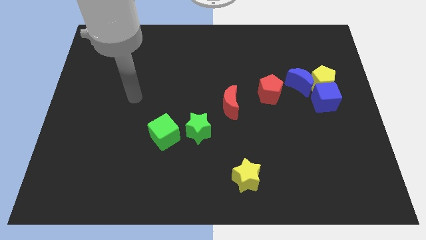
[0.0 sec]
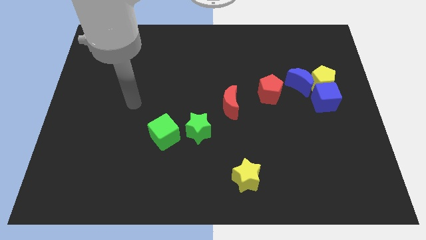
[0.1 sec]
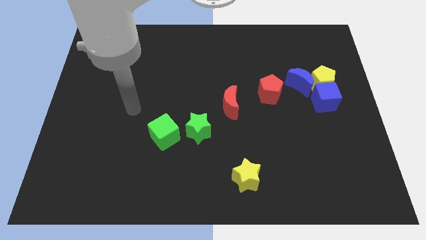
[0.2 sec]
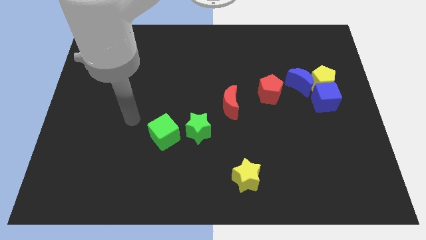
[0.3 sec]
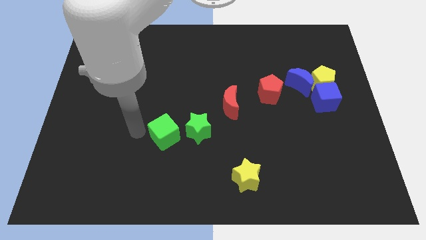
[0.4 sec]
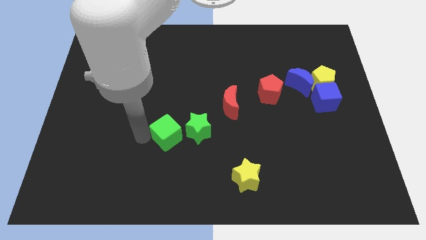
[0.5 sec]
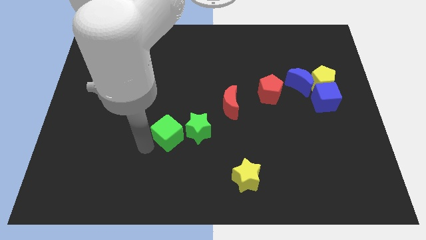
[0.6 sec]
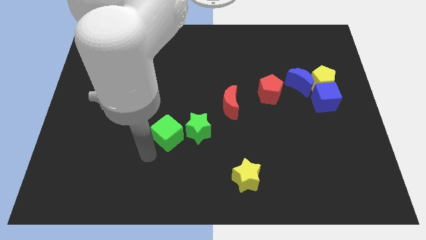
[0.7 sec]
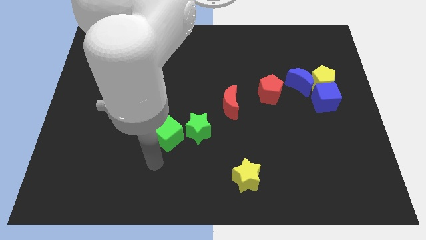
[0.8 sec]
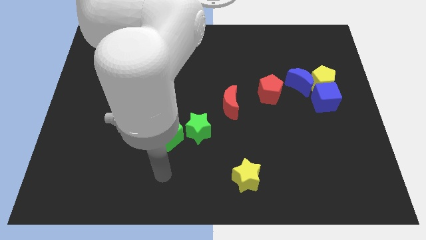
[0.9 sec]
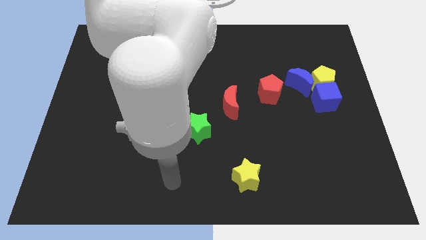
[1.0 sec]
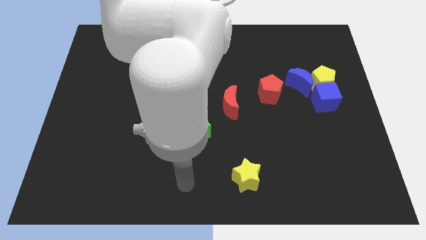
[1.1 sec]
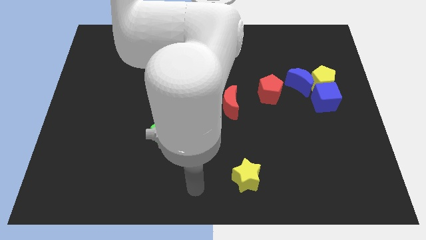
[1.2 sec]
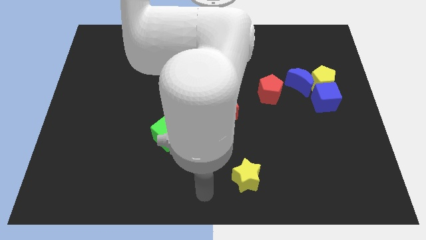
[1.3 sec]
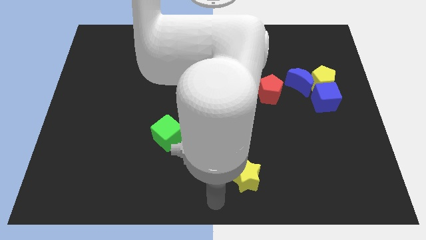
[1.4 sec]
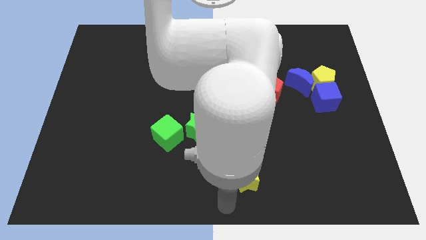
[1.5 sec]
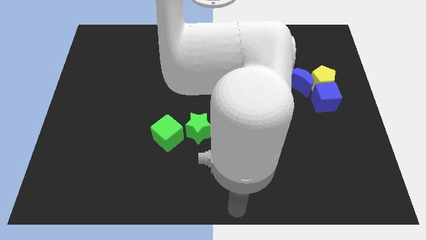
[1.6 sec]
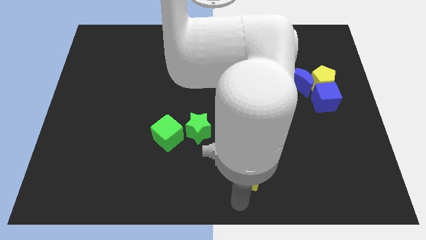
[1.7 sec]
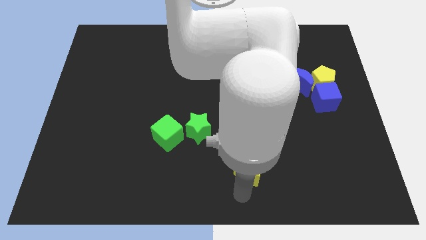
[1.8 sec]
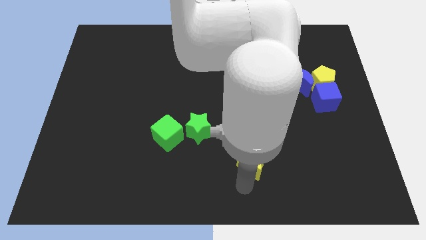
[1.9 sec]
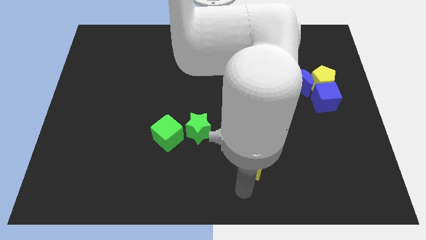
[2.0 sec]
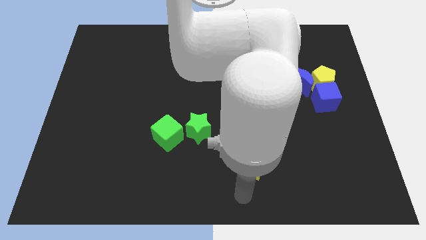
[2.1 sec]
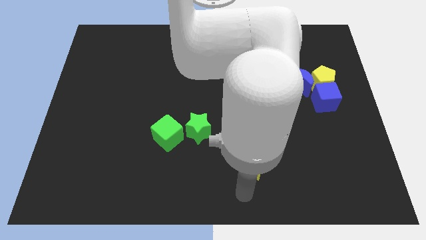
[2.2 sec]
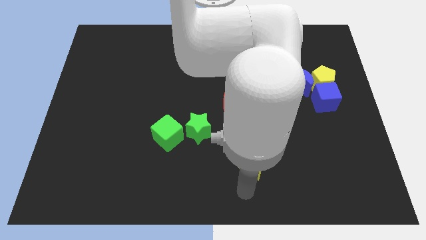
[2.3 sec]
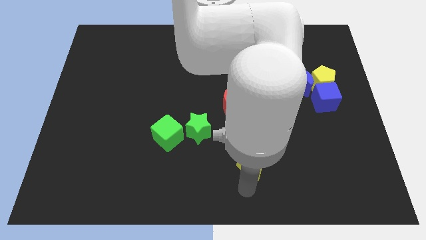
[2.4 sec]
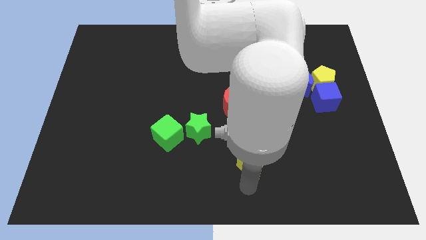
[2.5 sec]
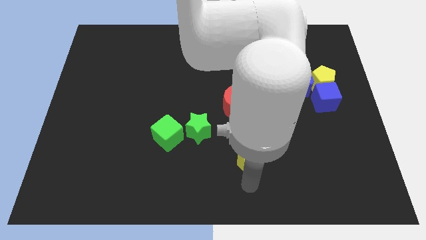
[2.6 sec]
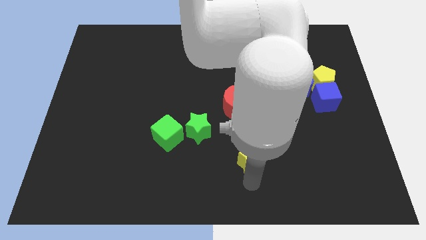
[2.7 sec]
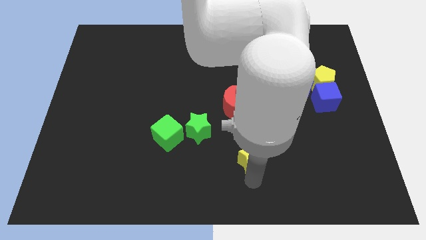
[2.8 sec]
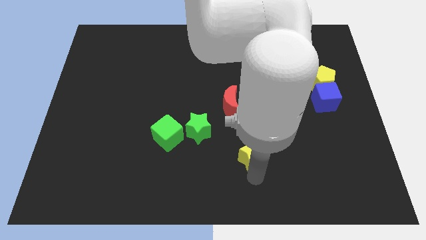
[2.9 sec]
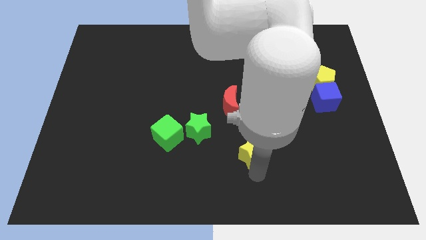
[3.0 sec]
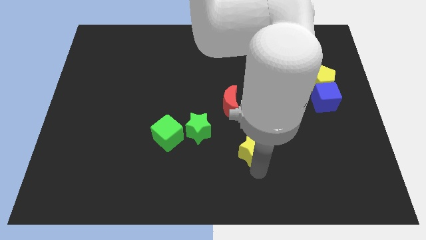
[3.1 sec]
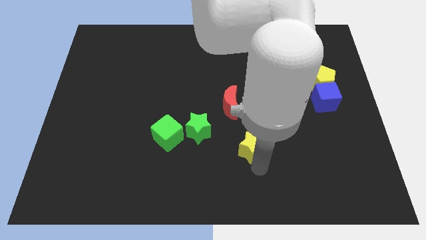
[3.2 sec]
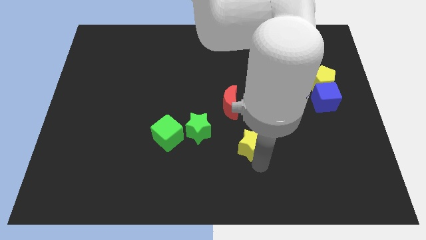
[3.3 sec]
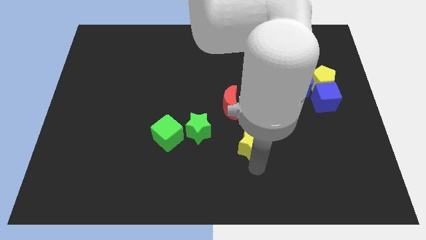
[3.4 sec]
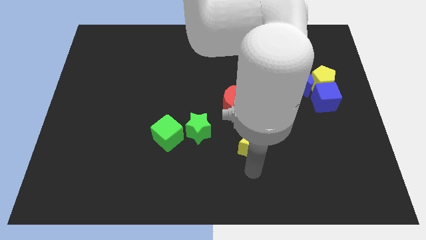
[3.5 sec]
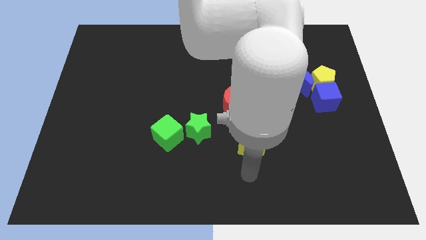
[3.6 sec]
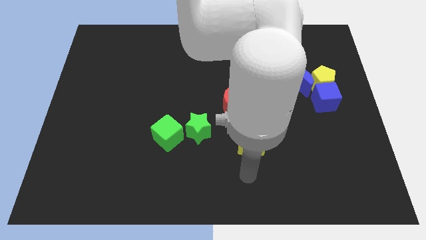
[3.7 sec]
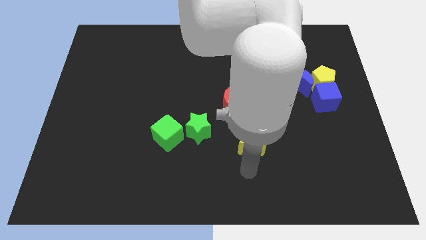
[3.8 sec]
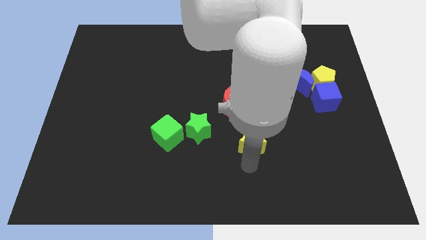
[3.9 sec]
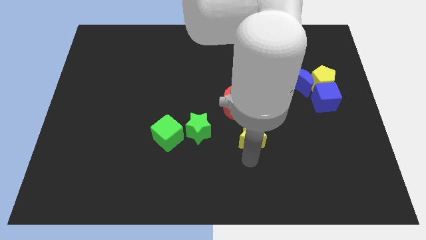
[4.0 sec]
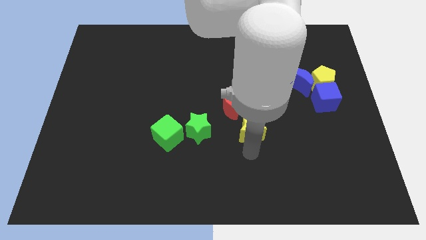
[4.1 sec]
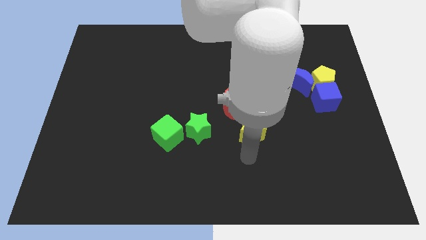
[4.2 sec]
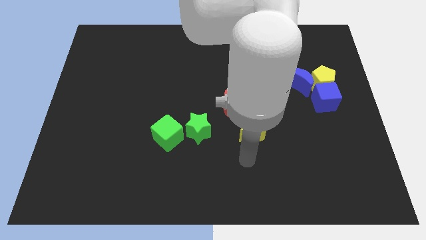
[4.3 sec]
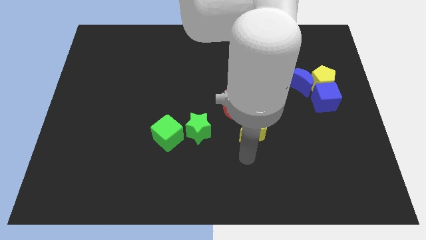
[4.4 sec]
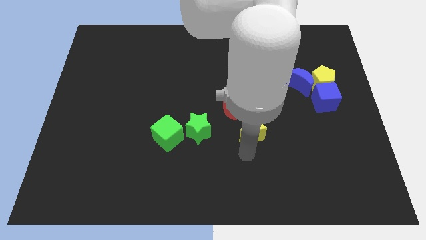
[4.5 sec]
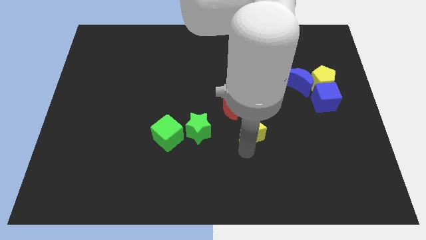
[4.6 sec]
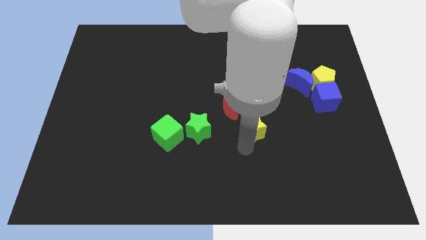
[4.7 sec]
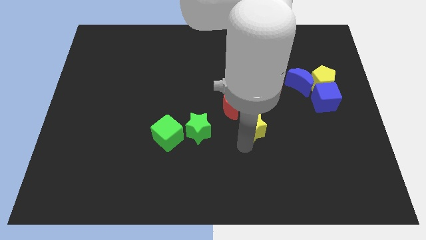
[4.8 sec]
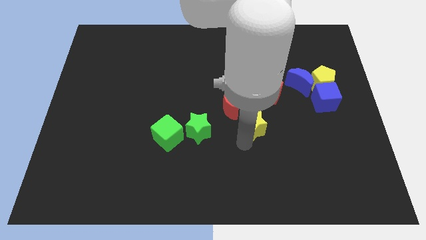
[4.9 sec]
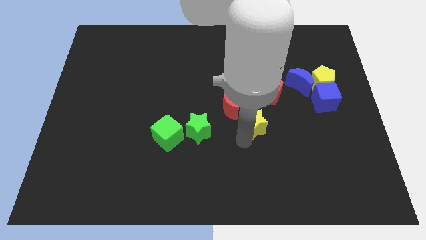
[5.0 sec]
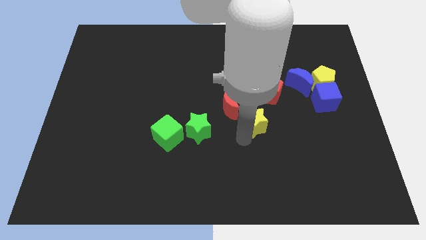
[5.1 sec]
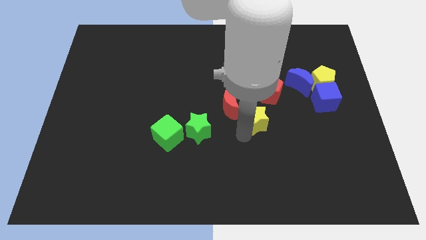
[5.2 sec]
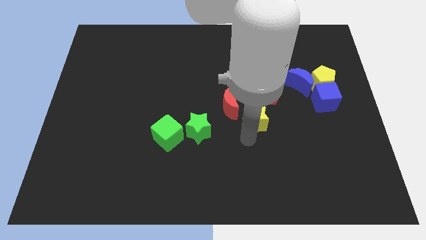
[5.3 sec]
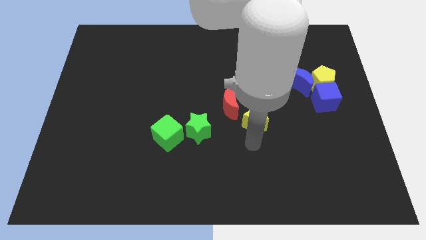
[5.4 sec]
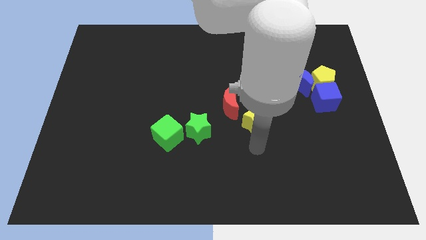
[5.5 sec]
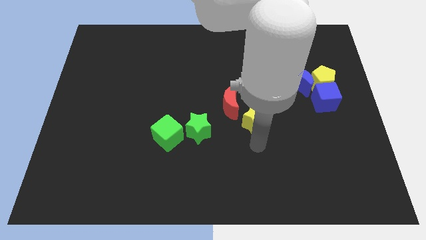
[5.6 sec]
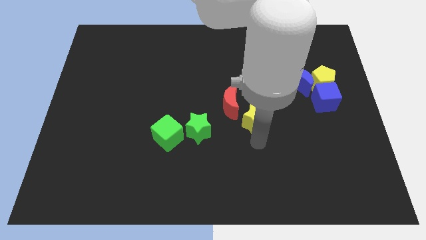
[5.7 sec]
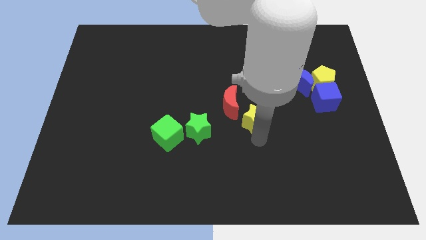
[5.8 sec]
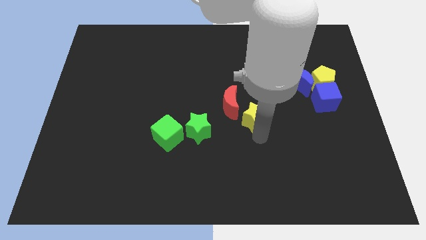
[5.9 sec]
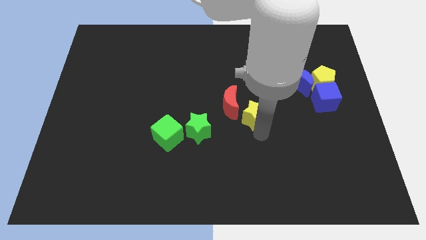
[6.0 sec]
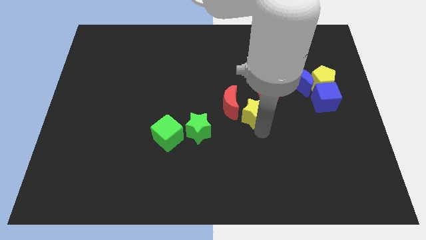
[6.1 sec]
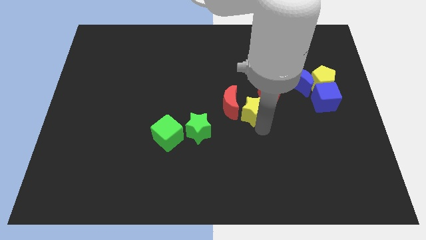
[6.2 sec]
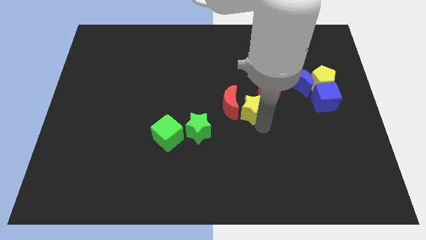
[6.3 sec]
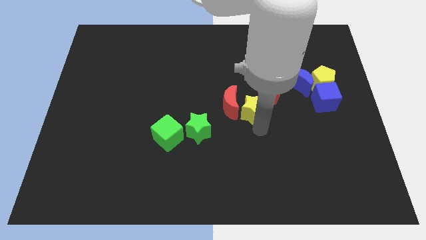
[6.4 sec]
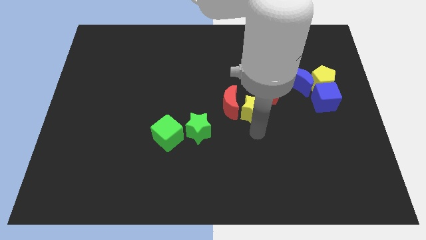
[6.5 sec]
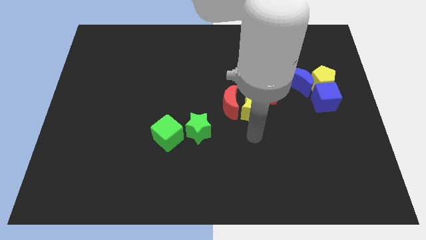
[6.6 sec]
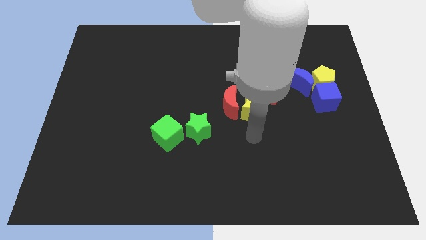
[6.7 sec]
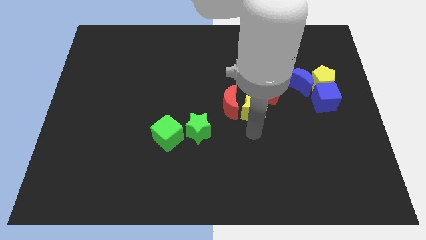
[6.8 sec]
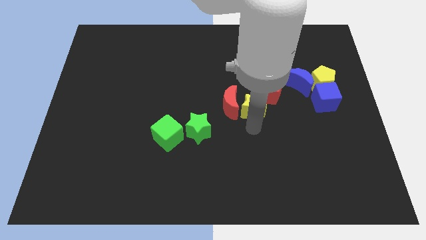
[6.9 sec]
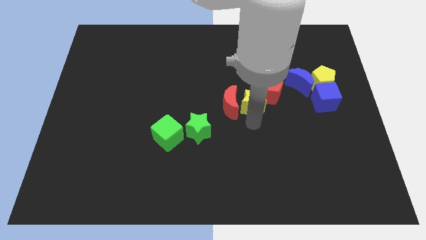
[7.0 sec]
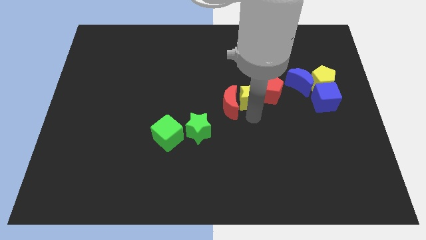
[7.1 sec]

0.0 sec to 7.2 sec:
move the yellow star up

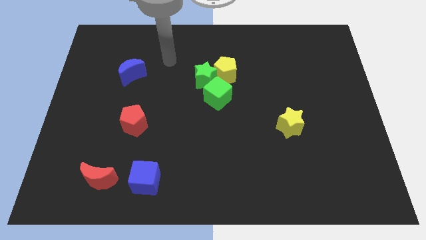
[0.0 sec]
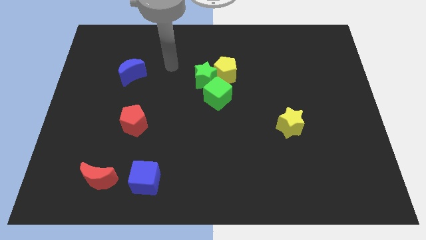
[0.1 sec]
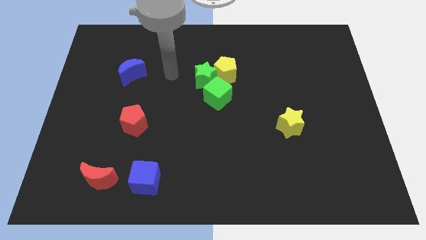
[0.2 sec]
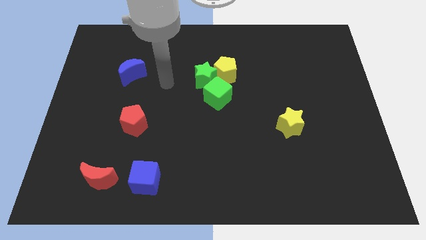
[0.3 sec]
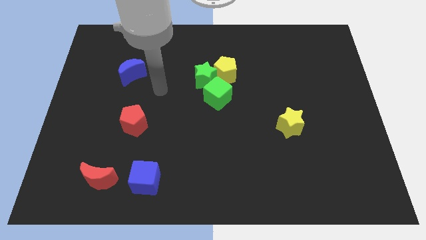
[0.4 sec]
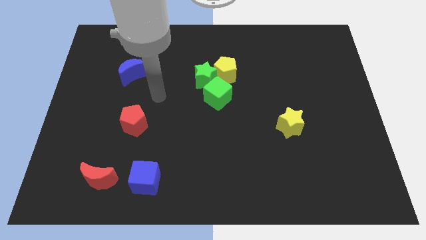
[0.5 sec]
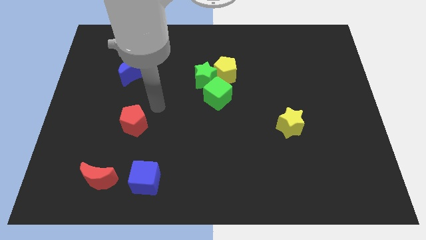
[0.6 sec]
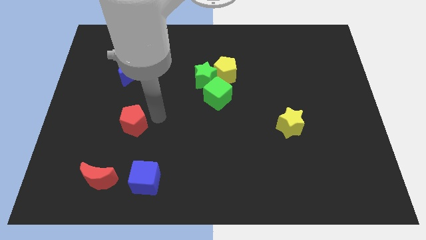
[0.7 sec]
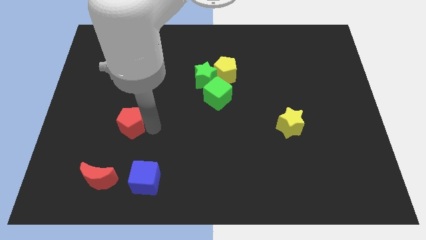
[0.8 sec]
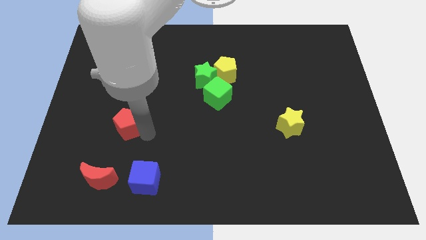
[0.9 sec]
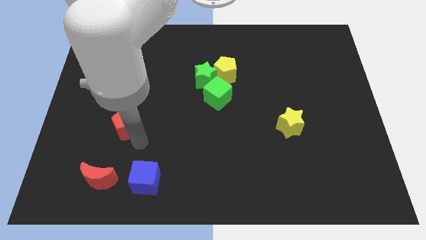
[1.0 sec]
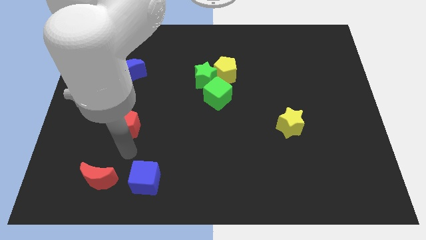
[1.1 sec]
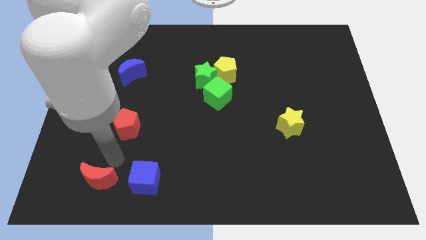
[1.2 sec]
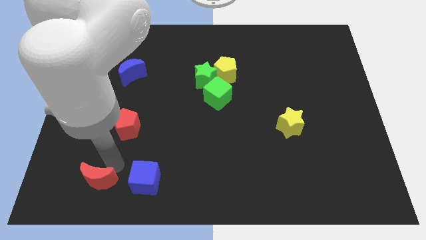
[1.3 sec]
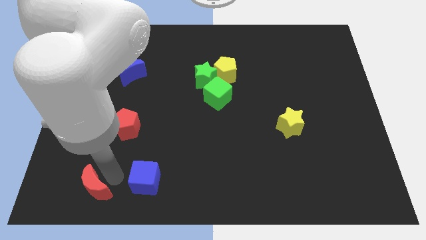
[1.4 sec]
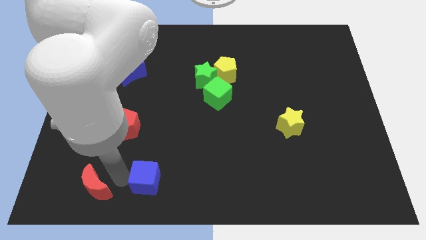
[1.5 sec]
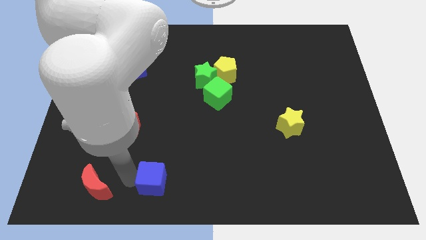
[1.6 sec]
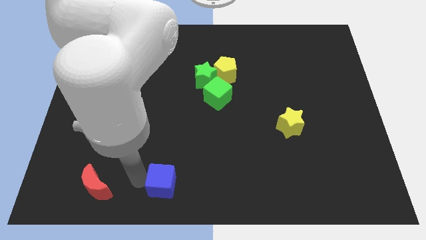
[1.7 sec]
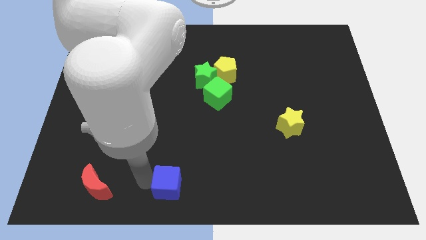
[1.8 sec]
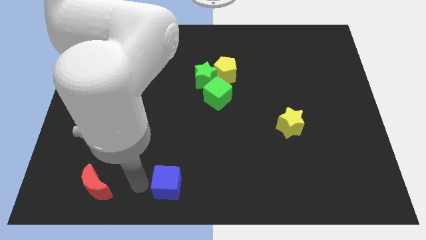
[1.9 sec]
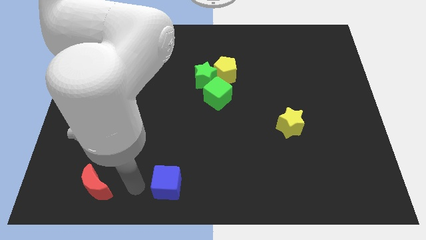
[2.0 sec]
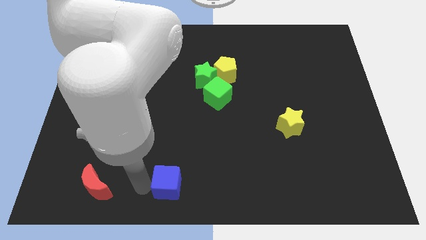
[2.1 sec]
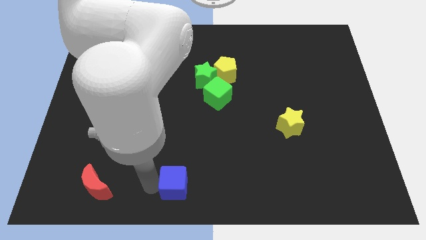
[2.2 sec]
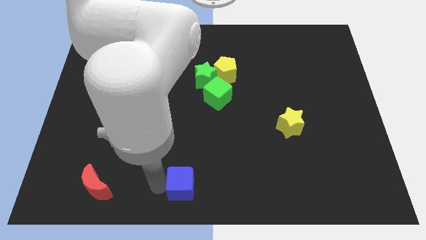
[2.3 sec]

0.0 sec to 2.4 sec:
slightly slide the blue cube right
